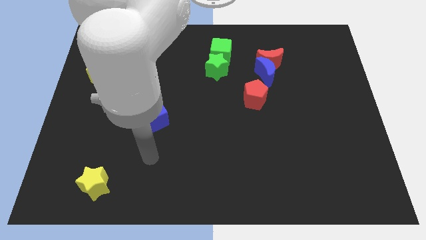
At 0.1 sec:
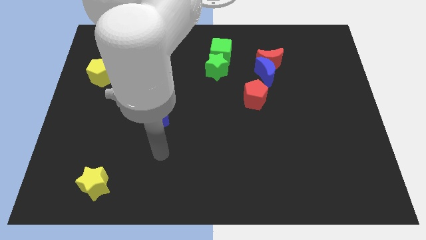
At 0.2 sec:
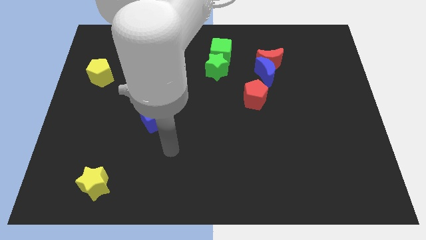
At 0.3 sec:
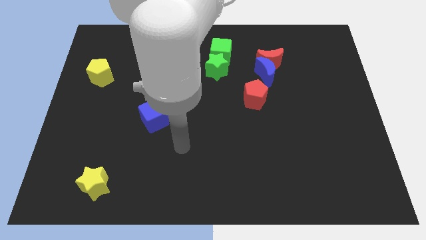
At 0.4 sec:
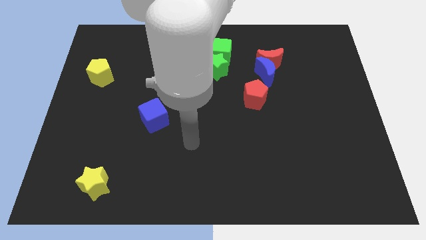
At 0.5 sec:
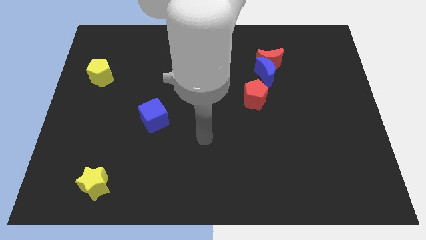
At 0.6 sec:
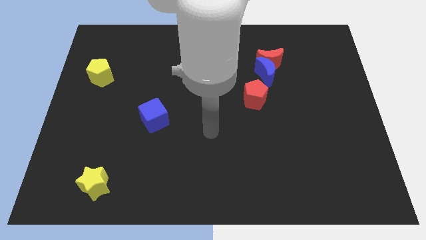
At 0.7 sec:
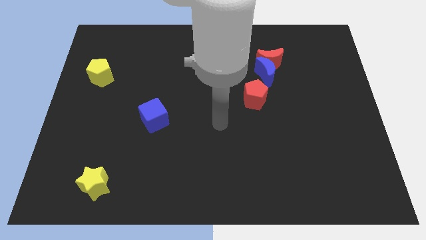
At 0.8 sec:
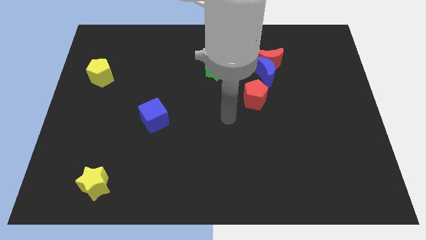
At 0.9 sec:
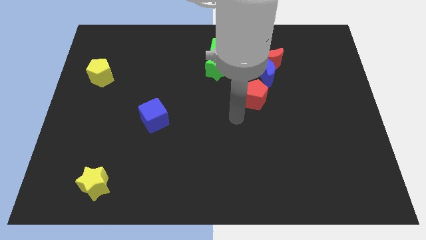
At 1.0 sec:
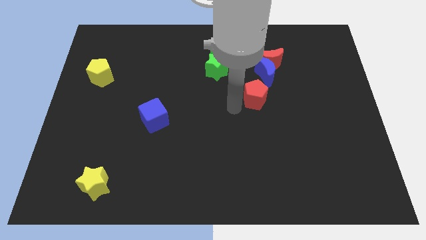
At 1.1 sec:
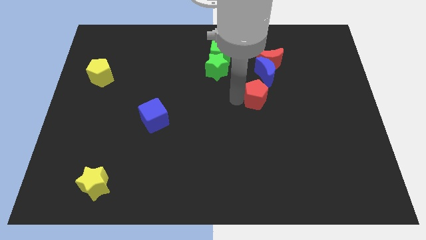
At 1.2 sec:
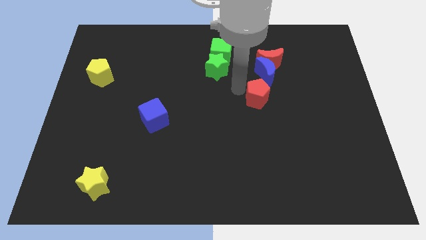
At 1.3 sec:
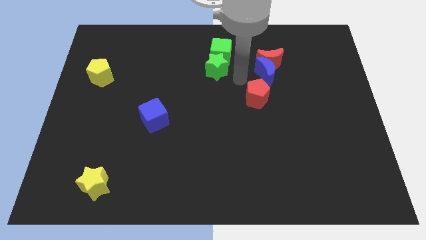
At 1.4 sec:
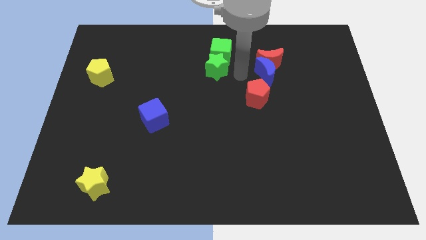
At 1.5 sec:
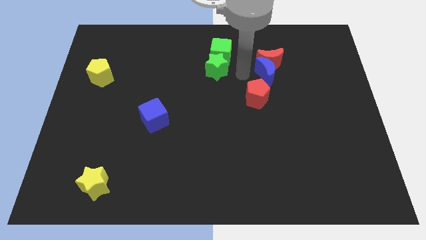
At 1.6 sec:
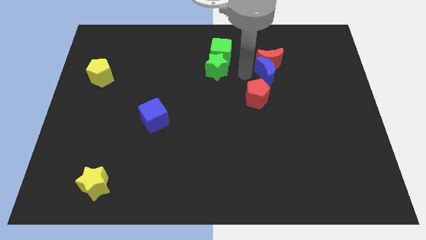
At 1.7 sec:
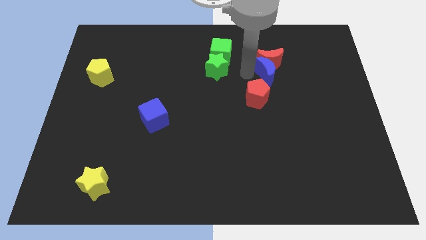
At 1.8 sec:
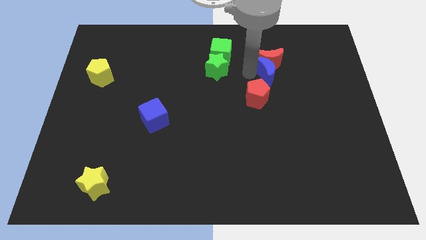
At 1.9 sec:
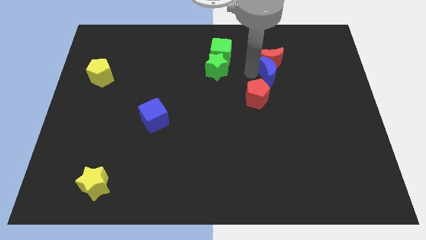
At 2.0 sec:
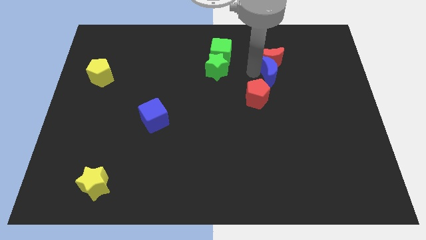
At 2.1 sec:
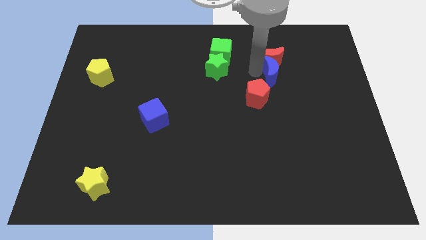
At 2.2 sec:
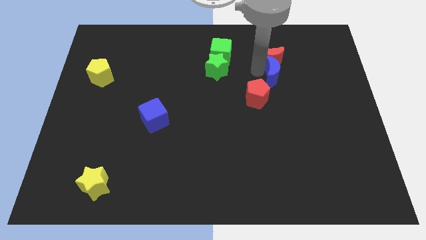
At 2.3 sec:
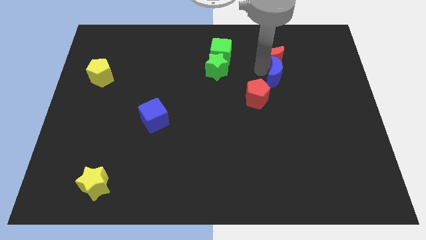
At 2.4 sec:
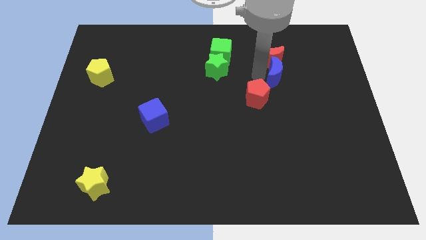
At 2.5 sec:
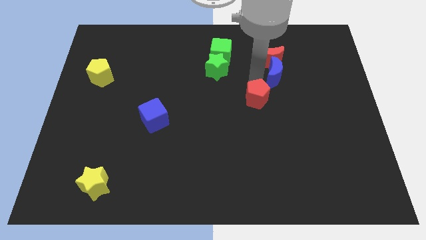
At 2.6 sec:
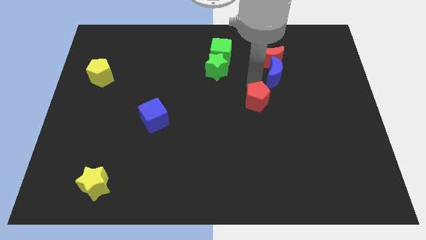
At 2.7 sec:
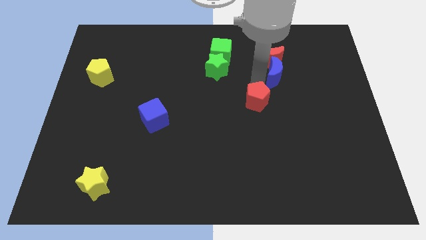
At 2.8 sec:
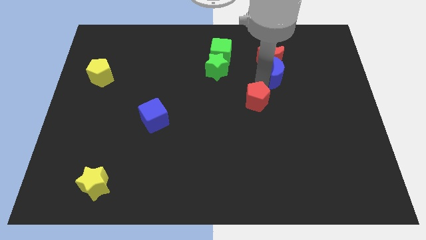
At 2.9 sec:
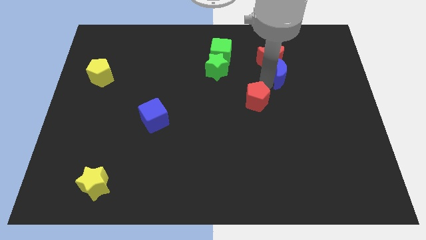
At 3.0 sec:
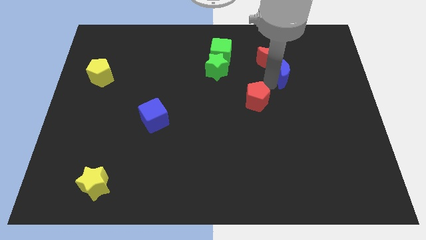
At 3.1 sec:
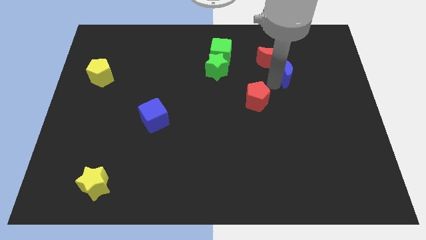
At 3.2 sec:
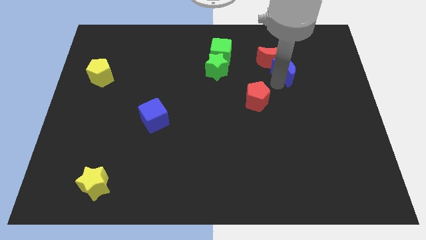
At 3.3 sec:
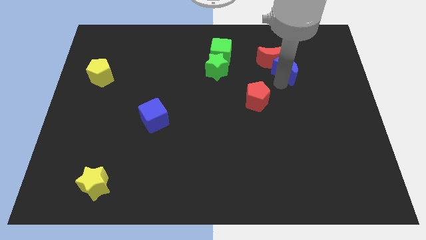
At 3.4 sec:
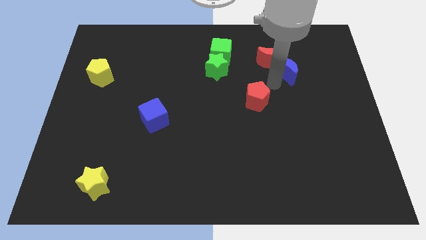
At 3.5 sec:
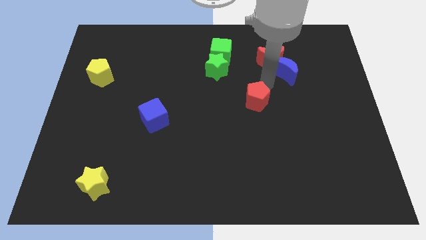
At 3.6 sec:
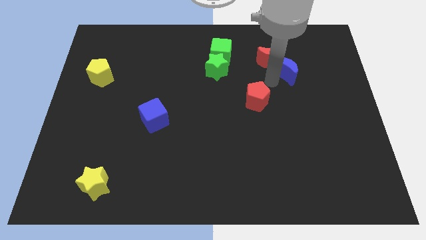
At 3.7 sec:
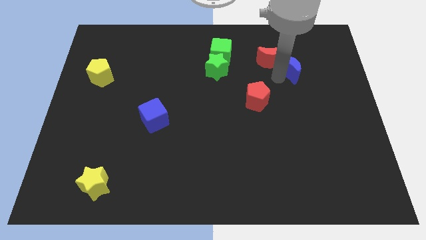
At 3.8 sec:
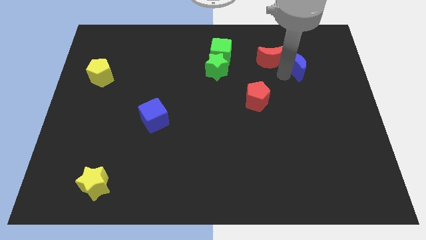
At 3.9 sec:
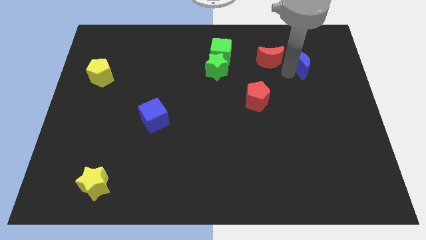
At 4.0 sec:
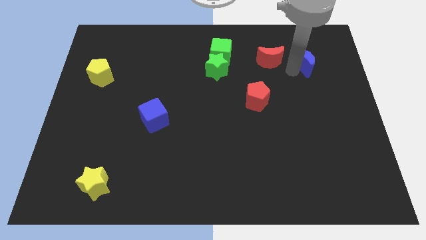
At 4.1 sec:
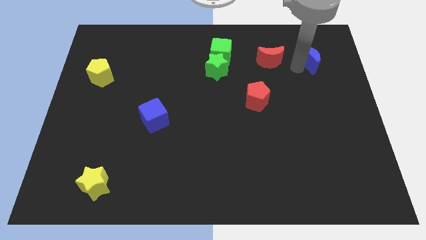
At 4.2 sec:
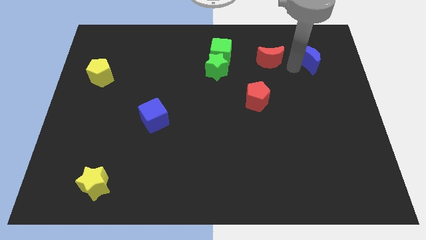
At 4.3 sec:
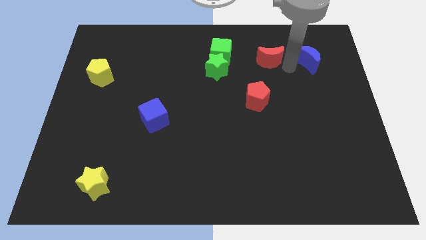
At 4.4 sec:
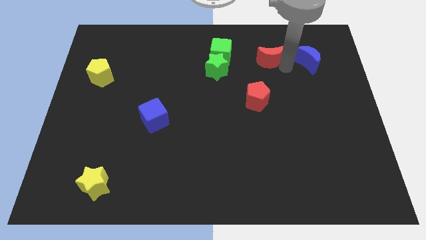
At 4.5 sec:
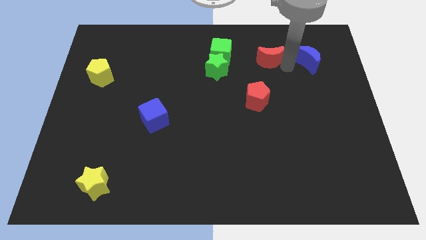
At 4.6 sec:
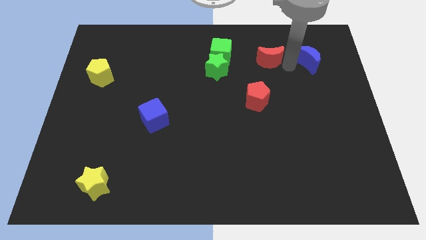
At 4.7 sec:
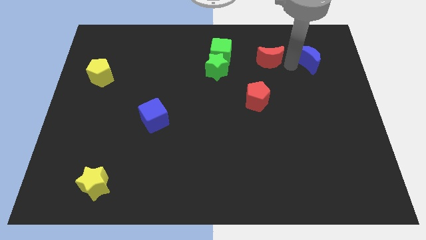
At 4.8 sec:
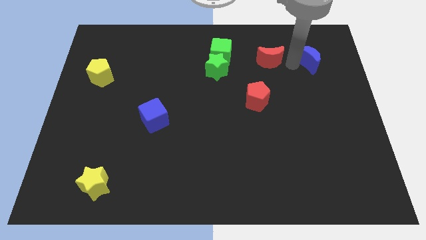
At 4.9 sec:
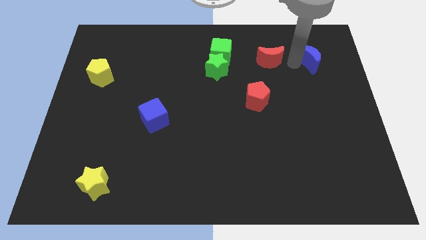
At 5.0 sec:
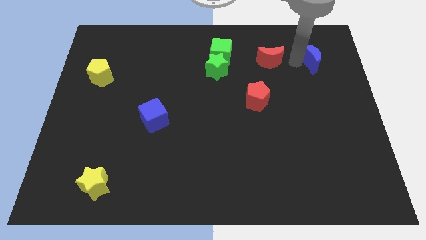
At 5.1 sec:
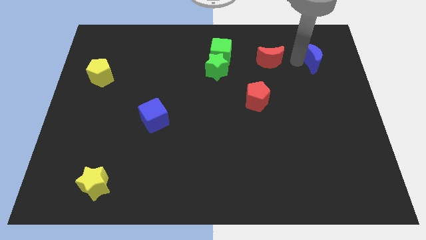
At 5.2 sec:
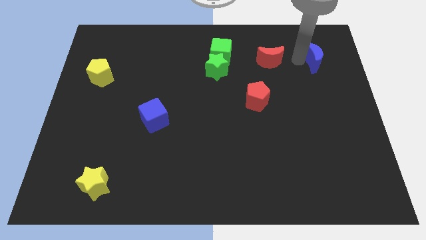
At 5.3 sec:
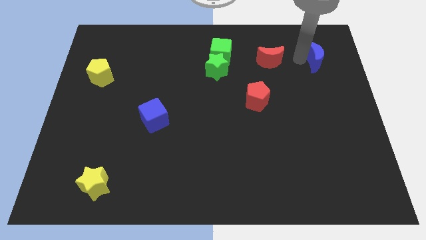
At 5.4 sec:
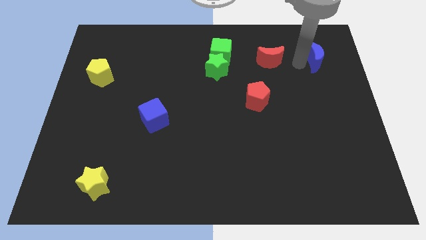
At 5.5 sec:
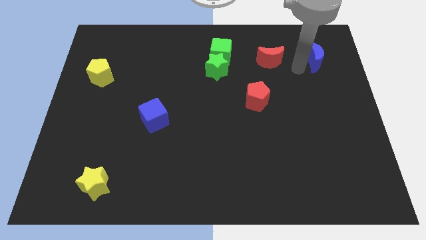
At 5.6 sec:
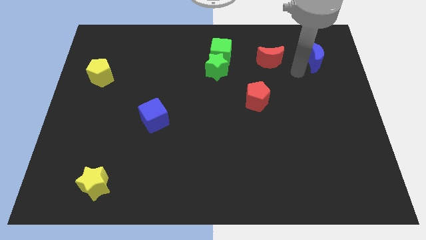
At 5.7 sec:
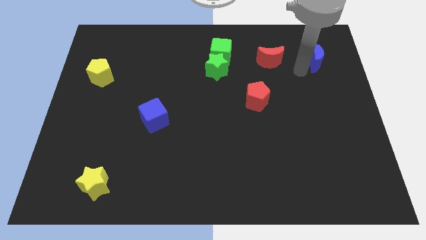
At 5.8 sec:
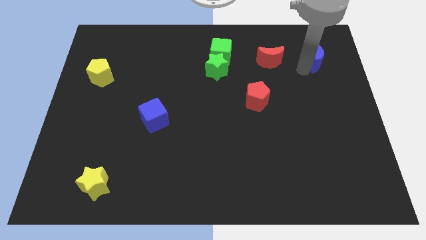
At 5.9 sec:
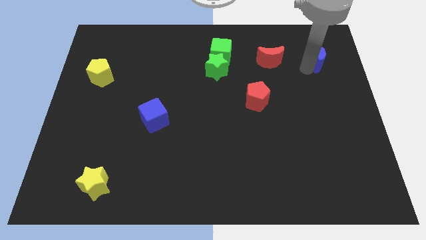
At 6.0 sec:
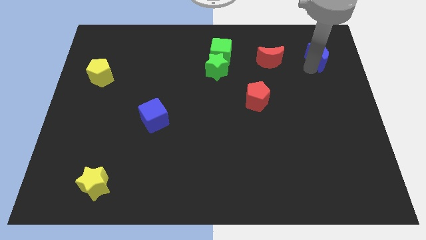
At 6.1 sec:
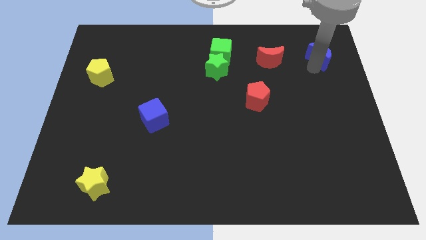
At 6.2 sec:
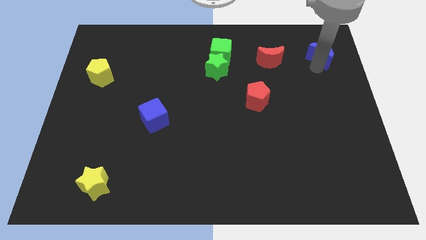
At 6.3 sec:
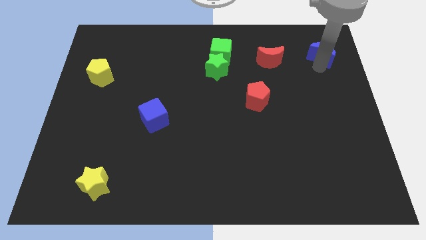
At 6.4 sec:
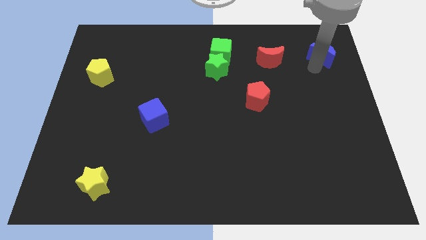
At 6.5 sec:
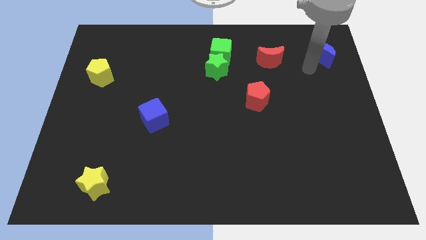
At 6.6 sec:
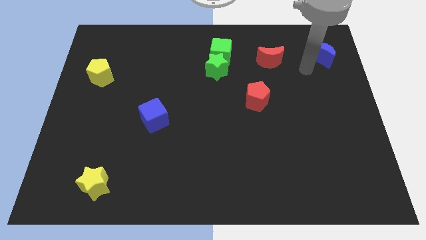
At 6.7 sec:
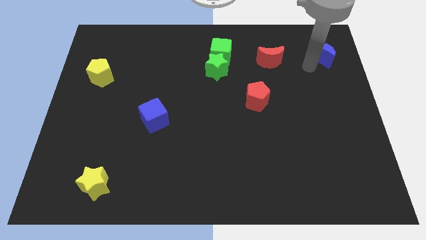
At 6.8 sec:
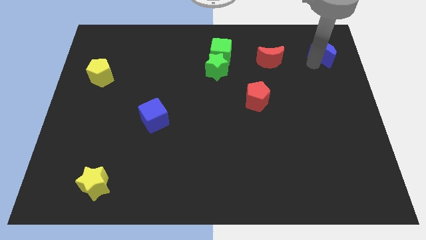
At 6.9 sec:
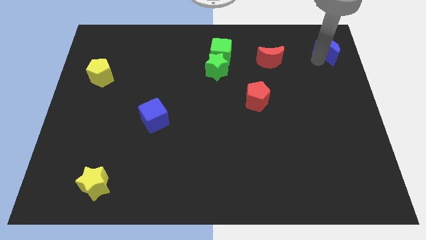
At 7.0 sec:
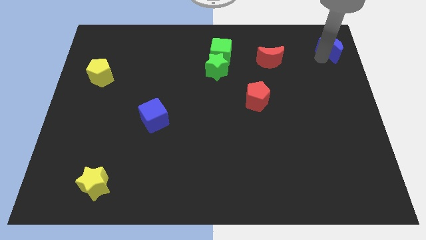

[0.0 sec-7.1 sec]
move the blue moon to the top right of the board
